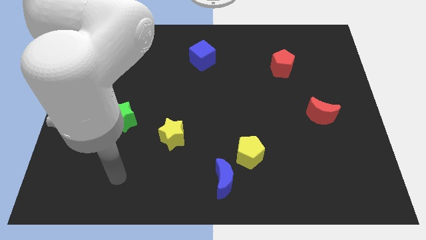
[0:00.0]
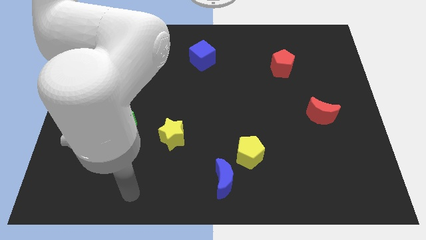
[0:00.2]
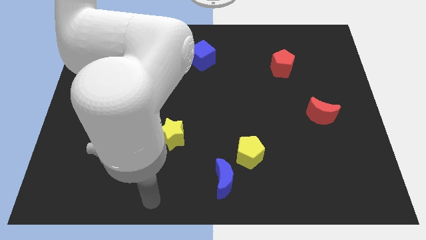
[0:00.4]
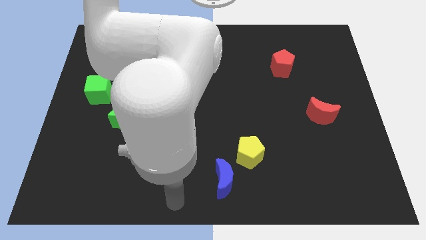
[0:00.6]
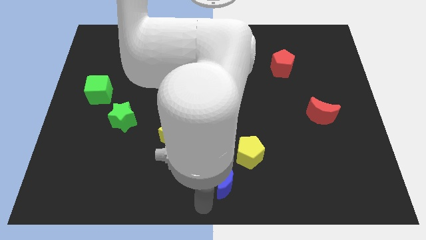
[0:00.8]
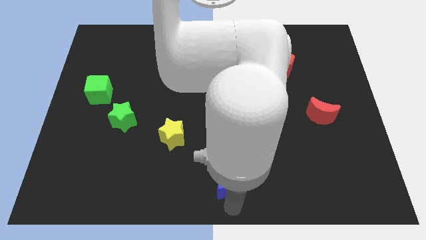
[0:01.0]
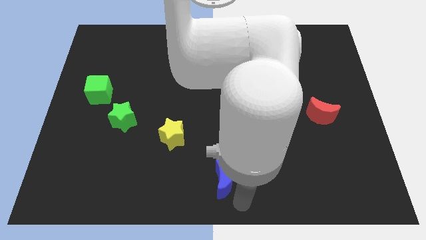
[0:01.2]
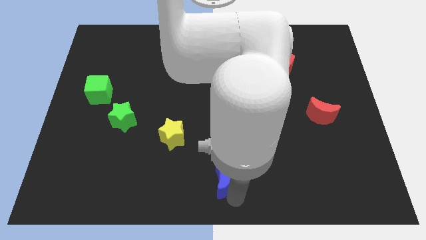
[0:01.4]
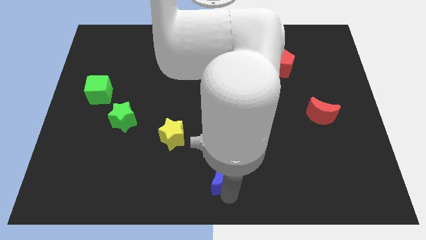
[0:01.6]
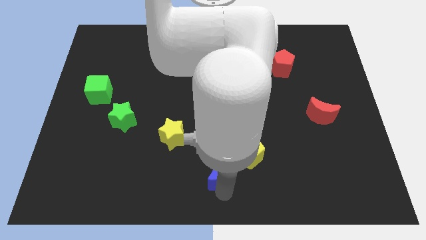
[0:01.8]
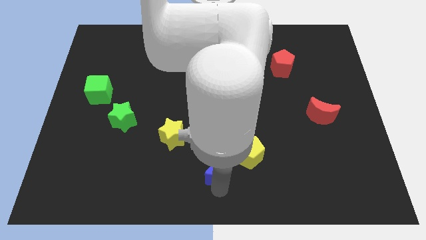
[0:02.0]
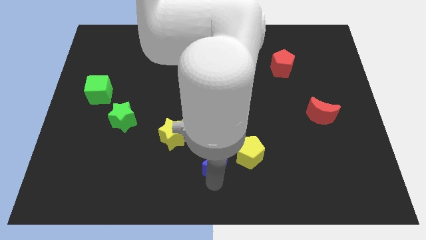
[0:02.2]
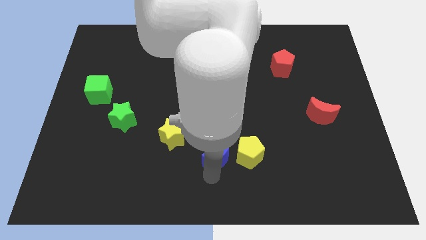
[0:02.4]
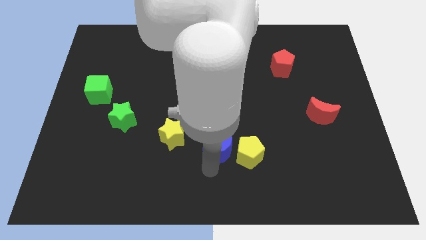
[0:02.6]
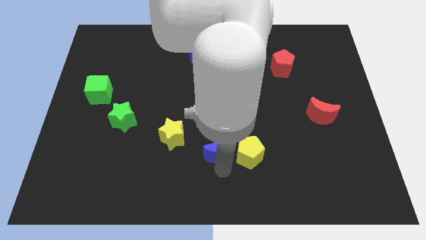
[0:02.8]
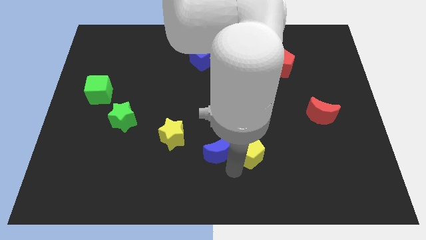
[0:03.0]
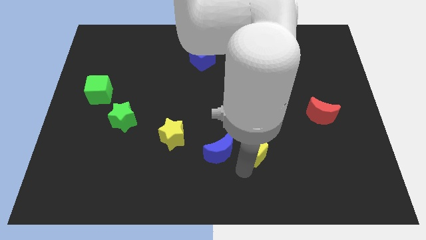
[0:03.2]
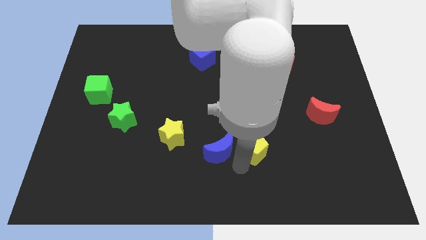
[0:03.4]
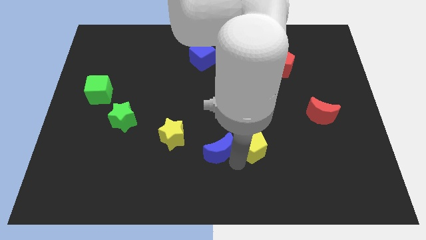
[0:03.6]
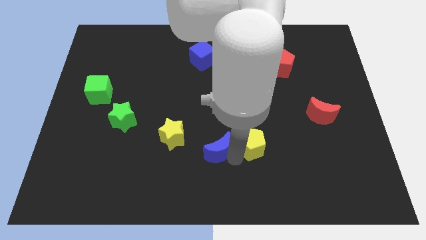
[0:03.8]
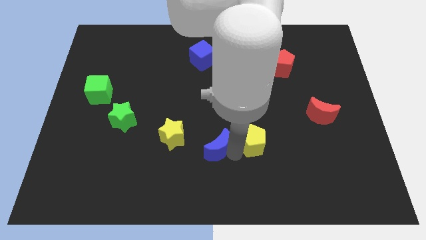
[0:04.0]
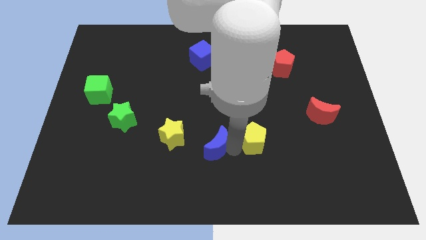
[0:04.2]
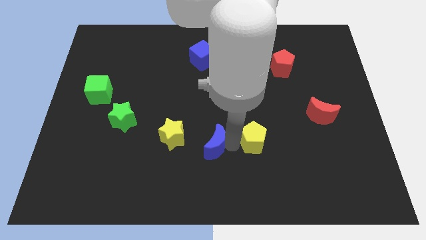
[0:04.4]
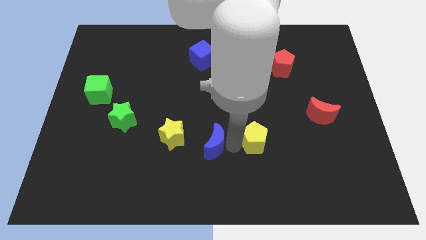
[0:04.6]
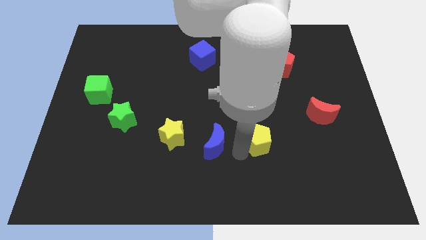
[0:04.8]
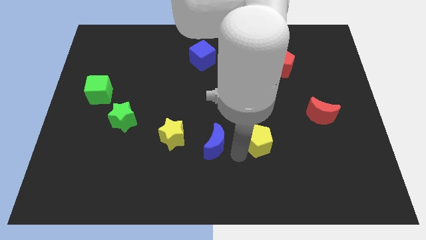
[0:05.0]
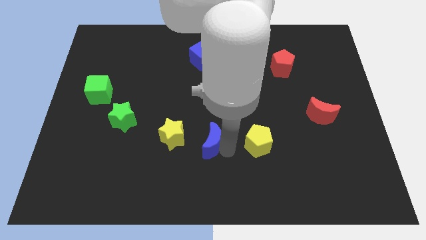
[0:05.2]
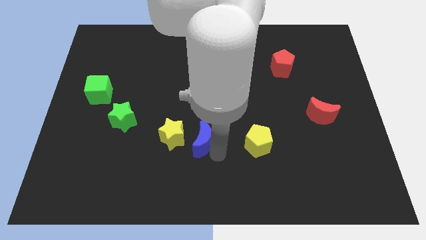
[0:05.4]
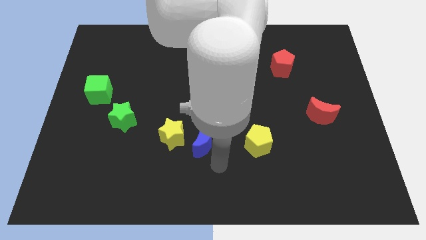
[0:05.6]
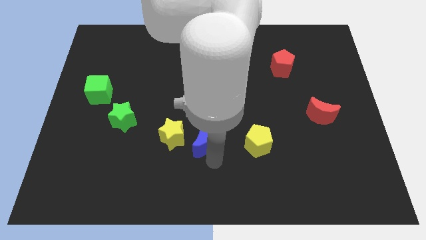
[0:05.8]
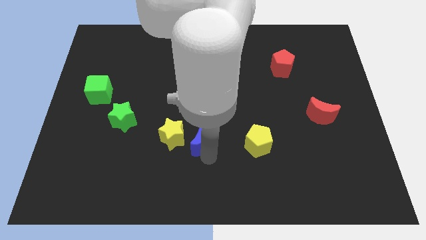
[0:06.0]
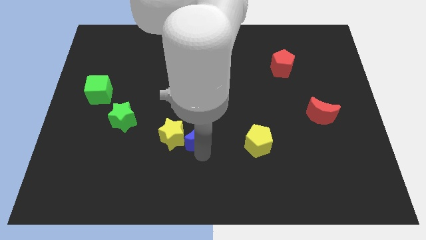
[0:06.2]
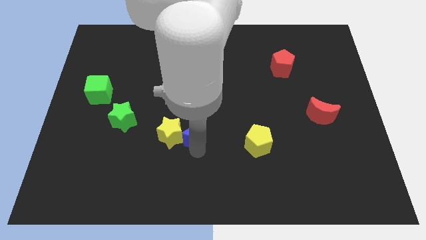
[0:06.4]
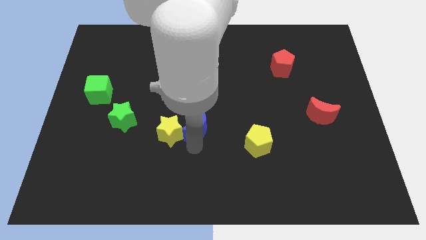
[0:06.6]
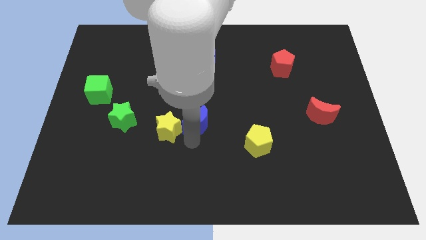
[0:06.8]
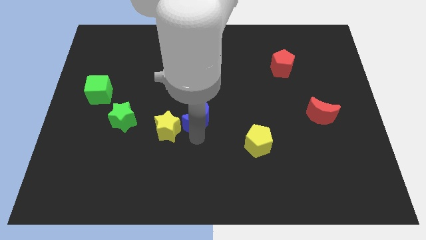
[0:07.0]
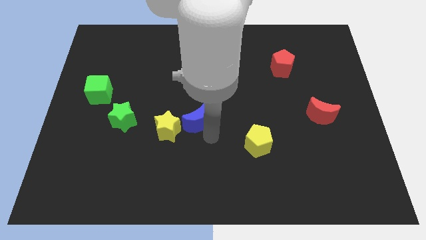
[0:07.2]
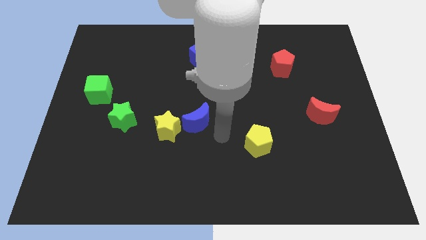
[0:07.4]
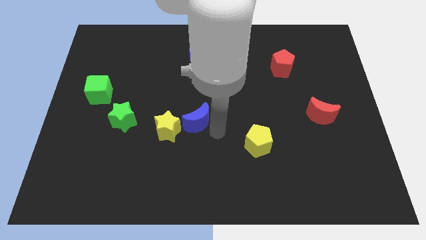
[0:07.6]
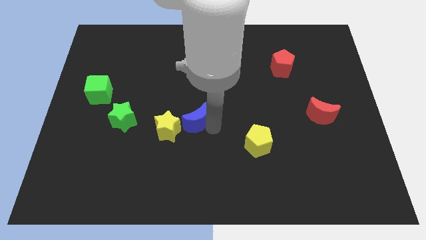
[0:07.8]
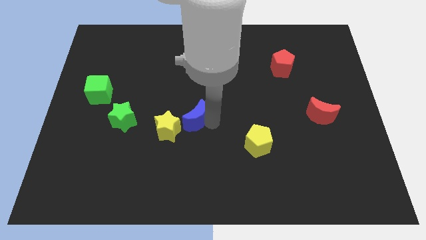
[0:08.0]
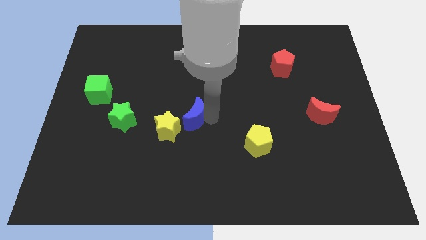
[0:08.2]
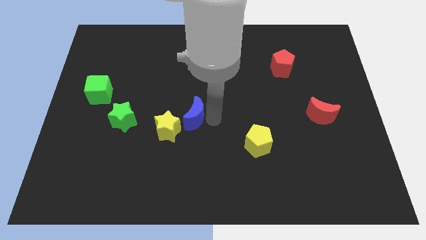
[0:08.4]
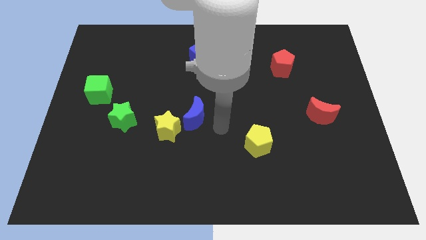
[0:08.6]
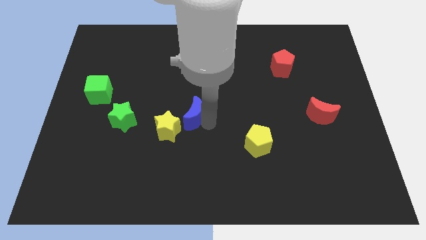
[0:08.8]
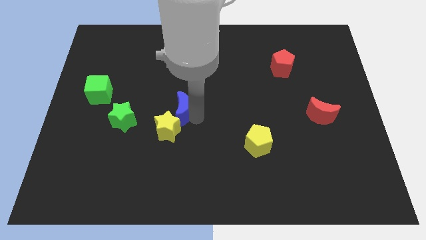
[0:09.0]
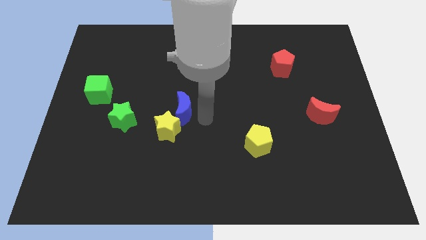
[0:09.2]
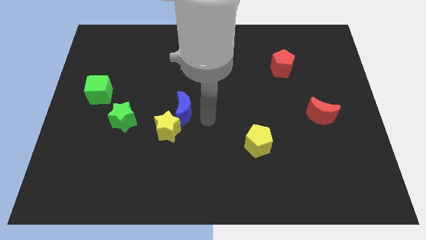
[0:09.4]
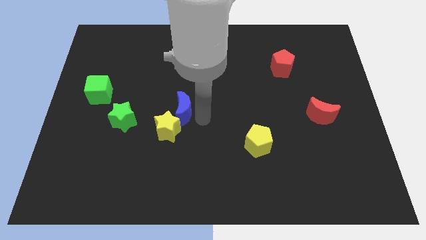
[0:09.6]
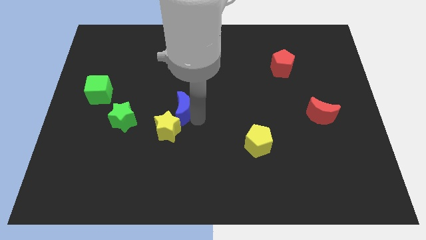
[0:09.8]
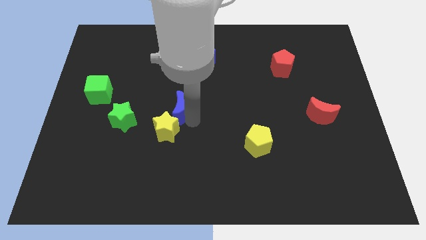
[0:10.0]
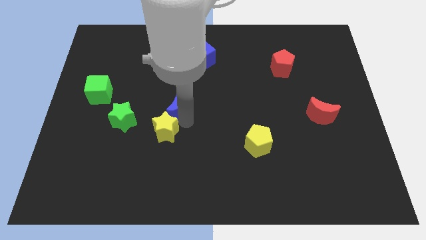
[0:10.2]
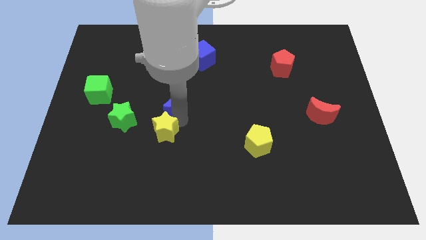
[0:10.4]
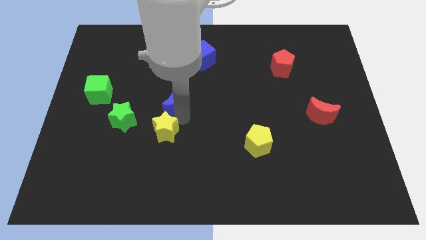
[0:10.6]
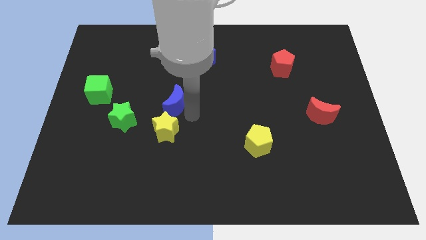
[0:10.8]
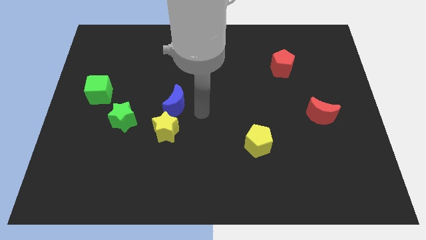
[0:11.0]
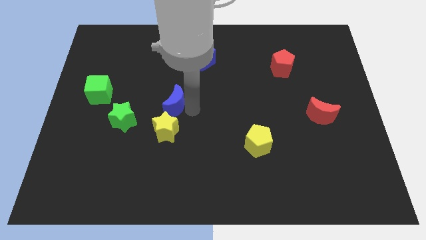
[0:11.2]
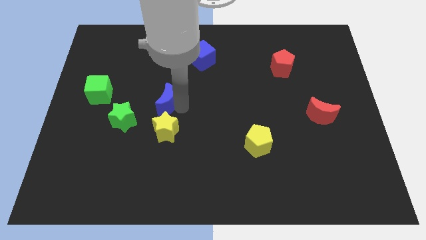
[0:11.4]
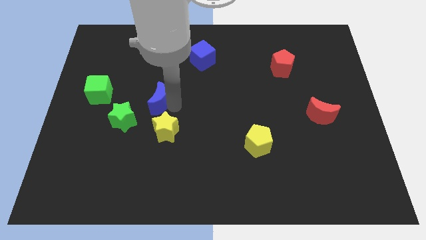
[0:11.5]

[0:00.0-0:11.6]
slide the blue moon to the right of the green cube

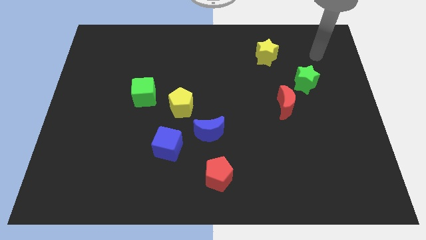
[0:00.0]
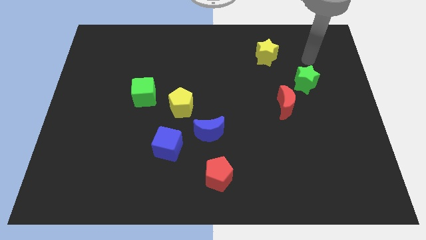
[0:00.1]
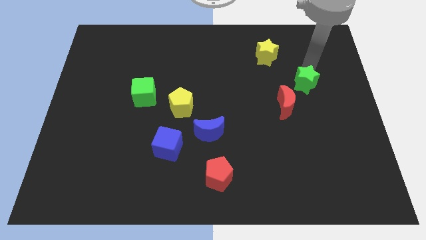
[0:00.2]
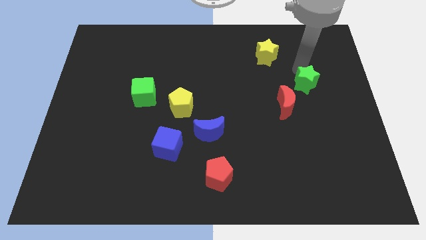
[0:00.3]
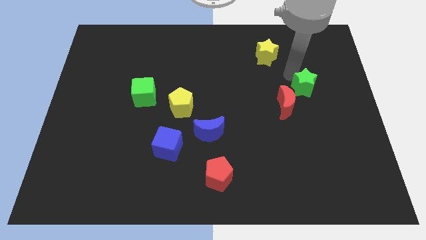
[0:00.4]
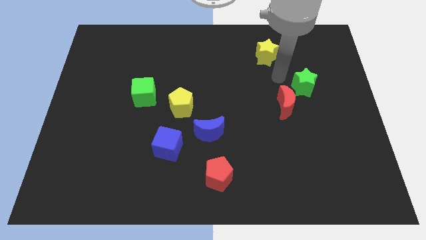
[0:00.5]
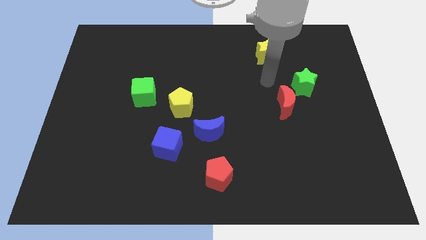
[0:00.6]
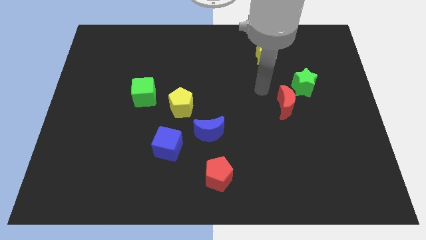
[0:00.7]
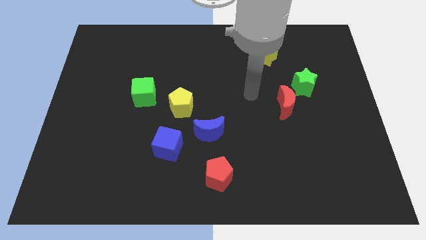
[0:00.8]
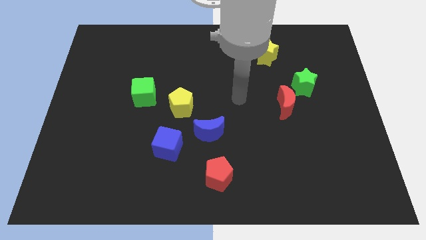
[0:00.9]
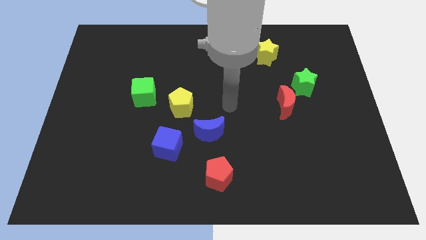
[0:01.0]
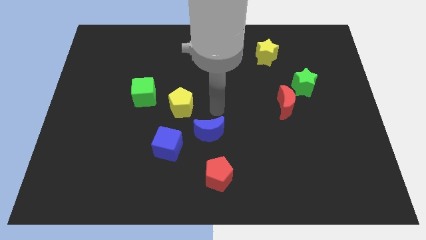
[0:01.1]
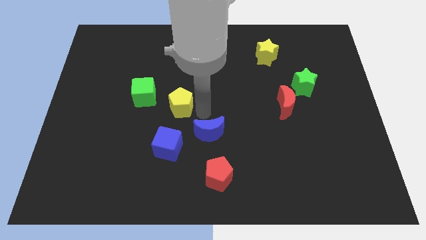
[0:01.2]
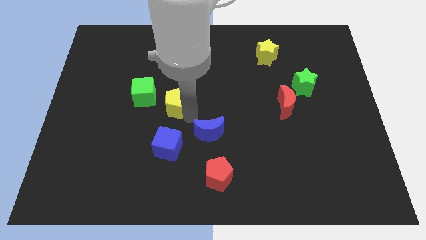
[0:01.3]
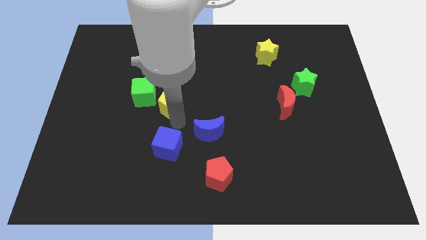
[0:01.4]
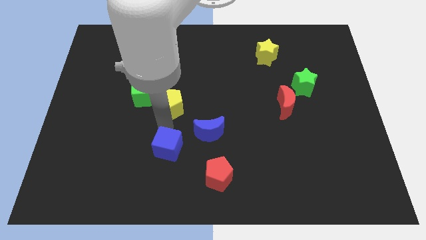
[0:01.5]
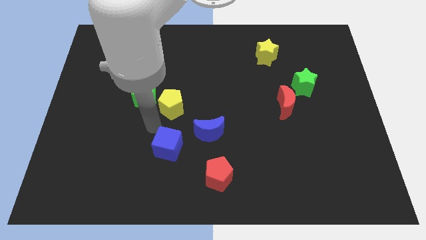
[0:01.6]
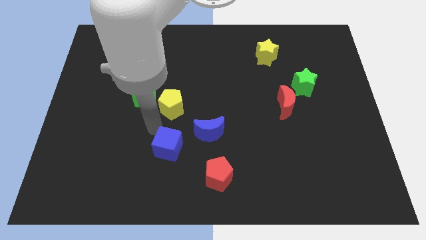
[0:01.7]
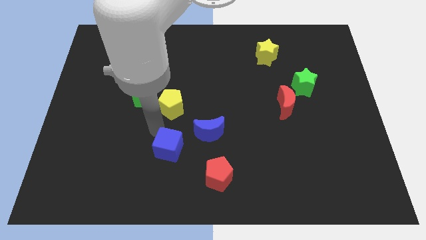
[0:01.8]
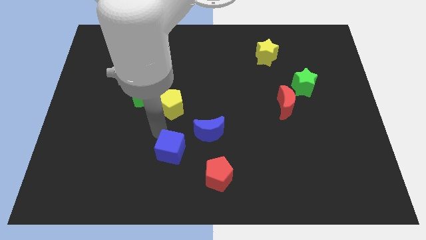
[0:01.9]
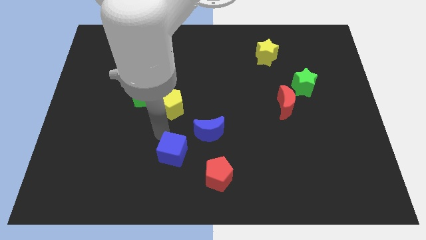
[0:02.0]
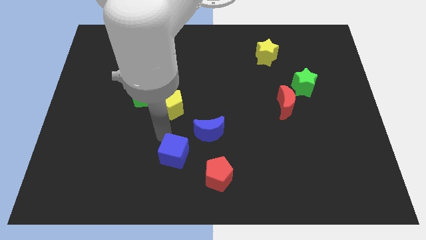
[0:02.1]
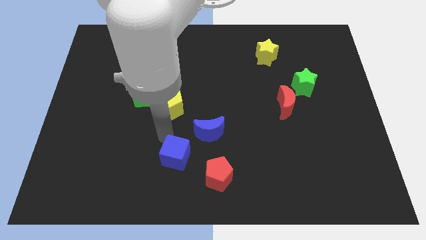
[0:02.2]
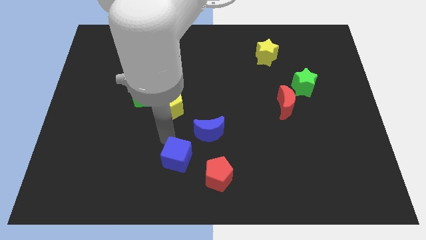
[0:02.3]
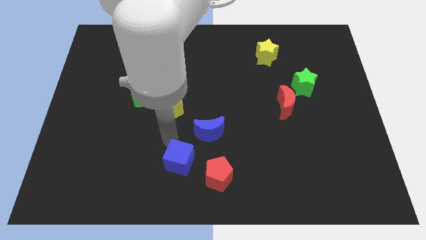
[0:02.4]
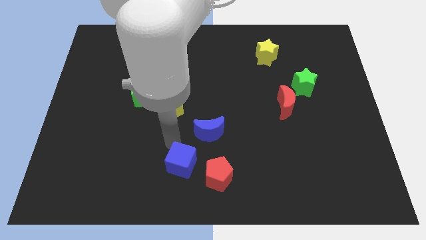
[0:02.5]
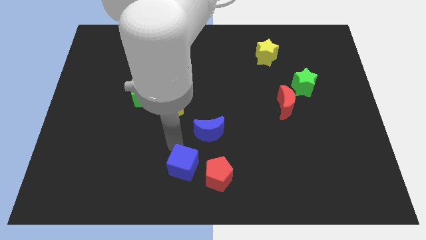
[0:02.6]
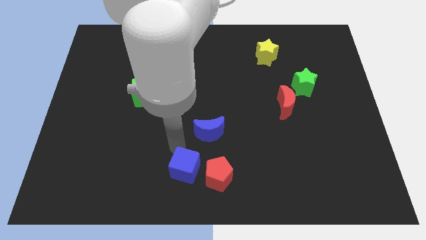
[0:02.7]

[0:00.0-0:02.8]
push the blue cube to the bottom of the blue moon
